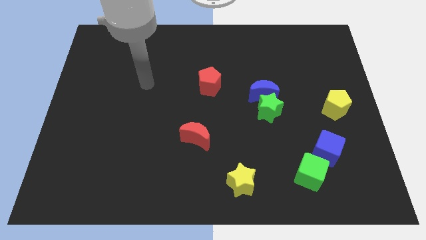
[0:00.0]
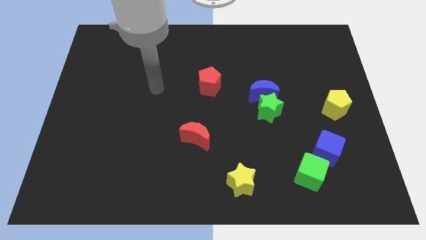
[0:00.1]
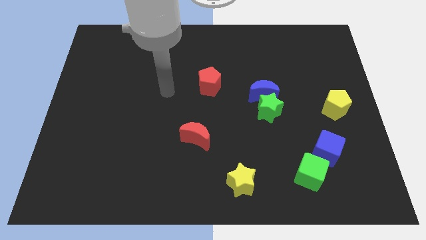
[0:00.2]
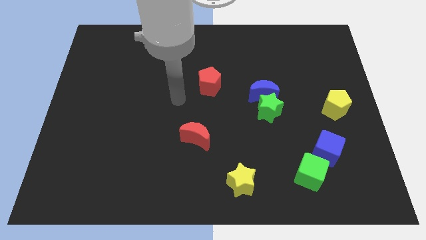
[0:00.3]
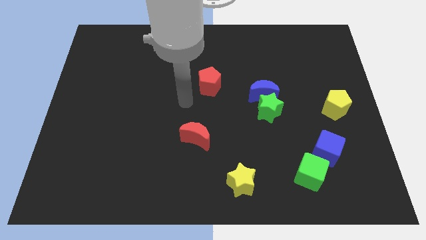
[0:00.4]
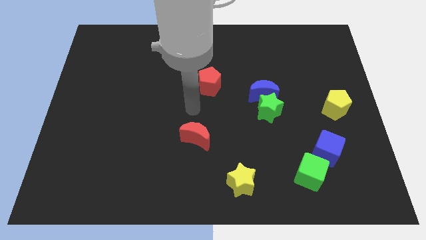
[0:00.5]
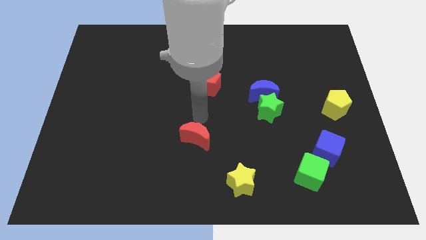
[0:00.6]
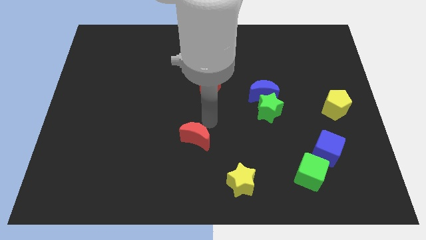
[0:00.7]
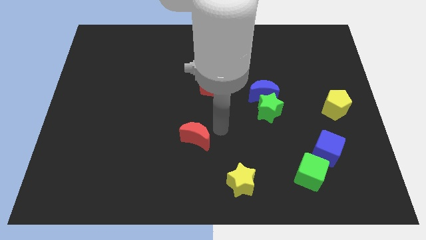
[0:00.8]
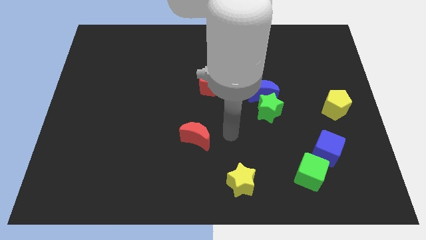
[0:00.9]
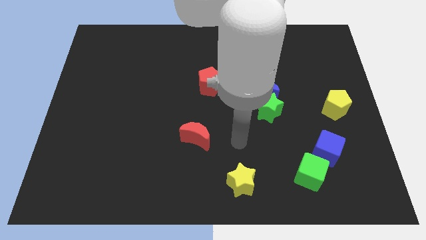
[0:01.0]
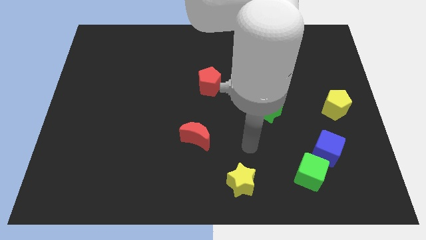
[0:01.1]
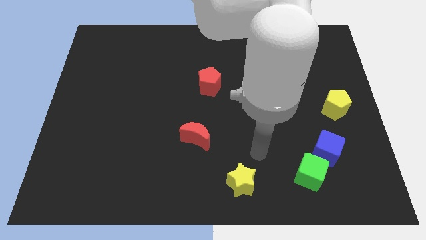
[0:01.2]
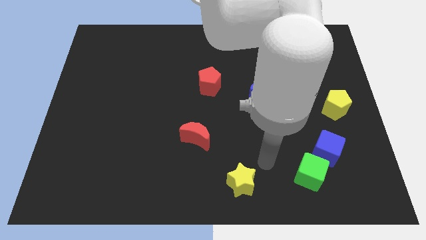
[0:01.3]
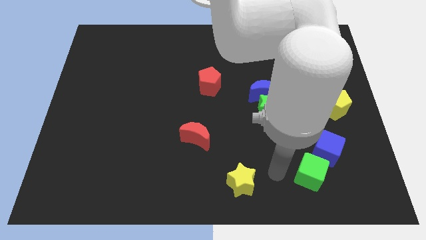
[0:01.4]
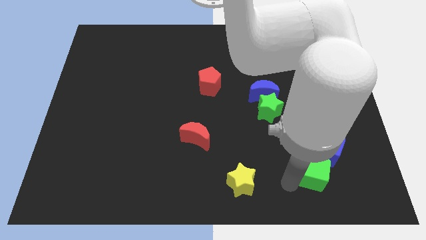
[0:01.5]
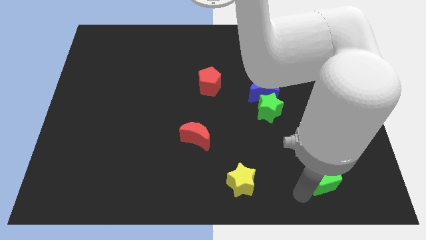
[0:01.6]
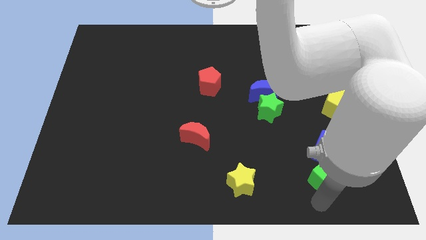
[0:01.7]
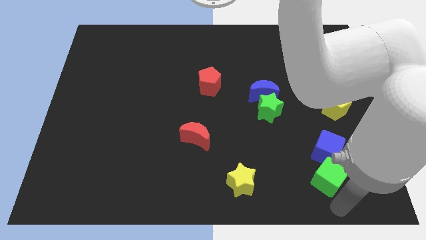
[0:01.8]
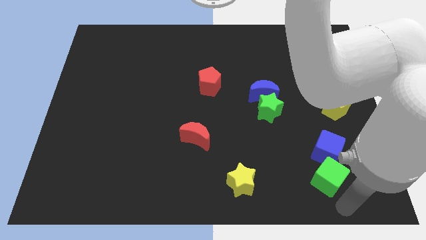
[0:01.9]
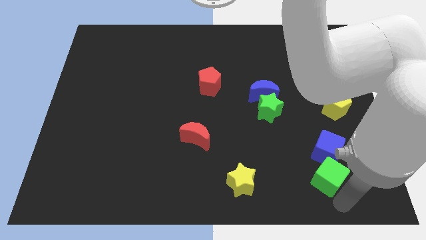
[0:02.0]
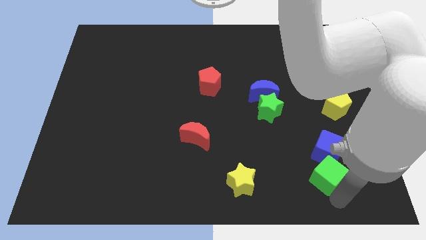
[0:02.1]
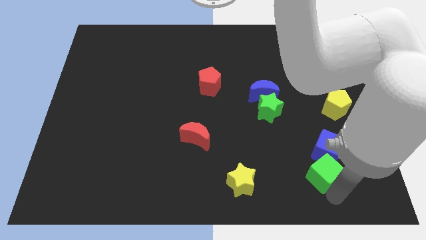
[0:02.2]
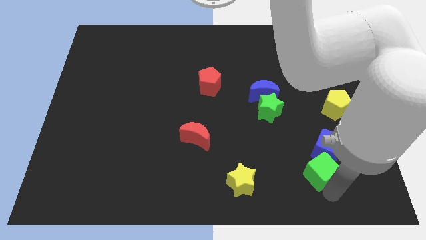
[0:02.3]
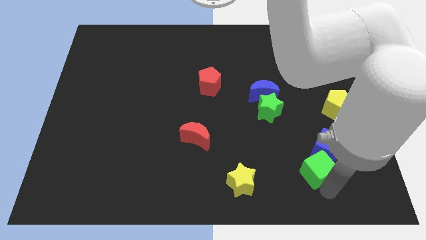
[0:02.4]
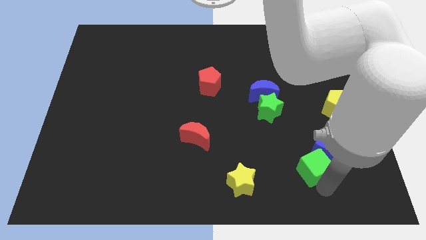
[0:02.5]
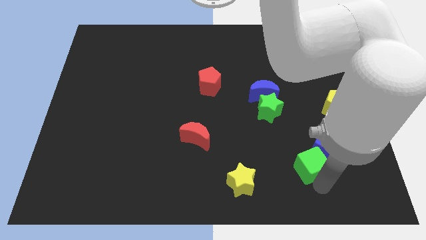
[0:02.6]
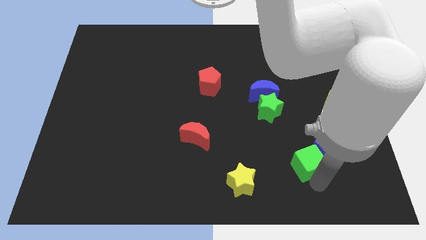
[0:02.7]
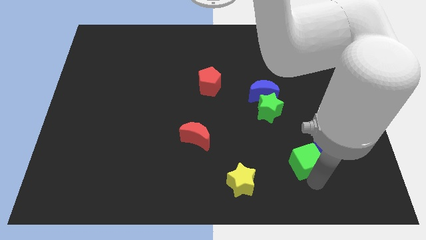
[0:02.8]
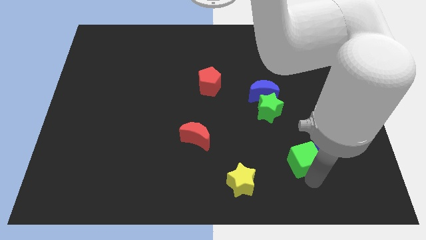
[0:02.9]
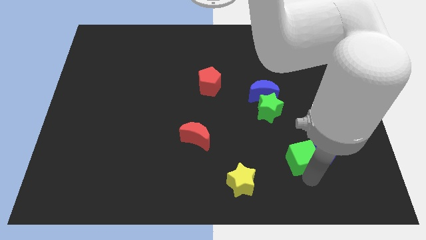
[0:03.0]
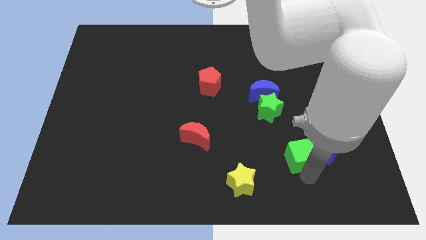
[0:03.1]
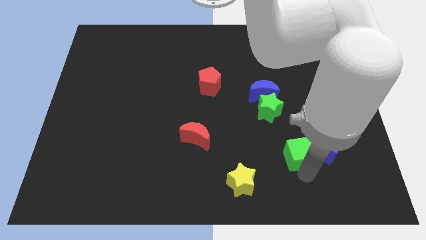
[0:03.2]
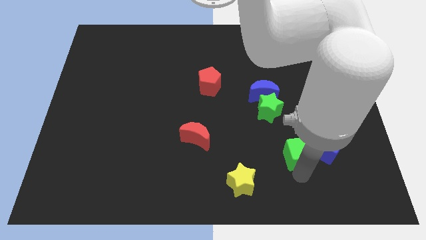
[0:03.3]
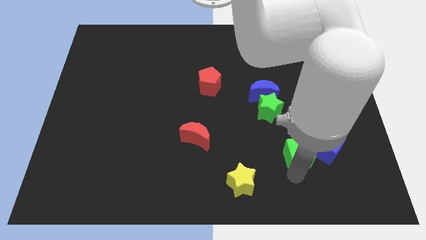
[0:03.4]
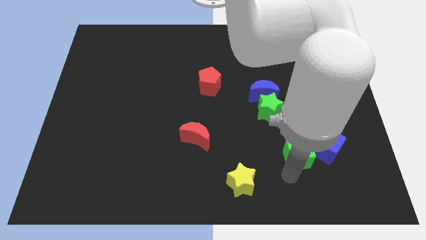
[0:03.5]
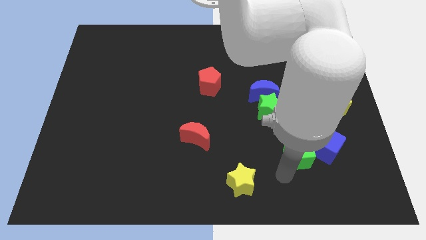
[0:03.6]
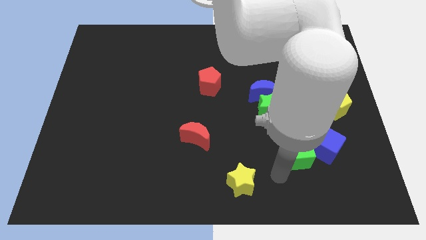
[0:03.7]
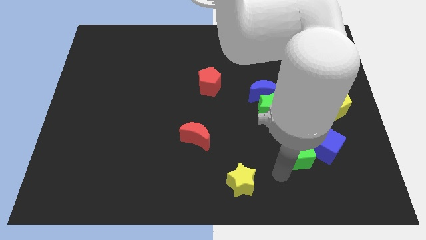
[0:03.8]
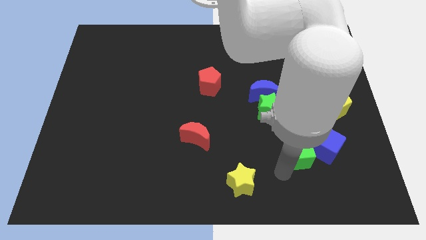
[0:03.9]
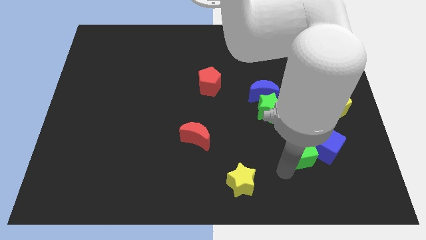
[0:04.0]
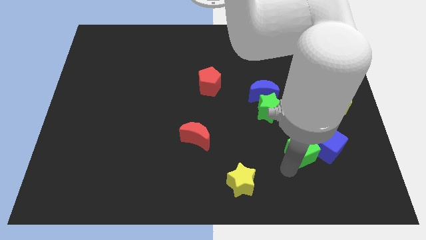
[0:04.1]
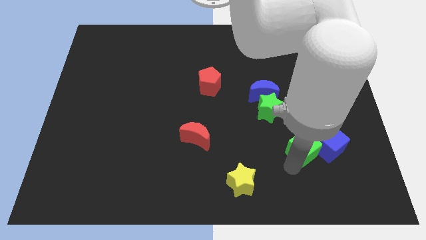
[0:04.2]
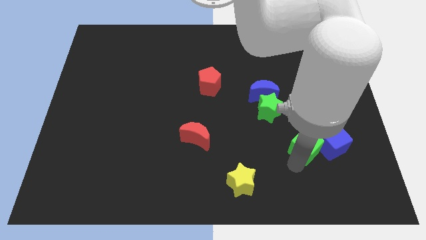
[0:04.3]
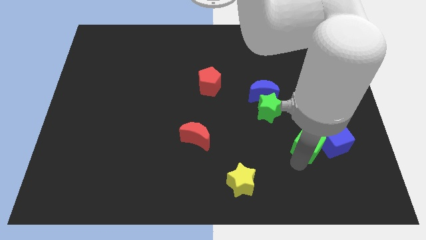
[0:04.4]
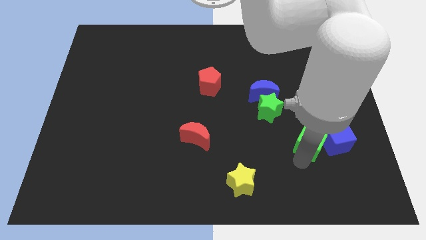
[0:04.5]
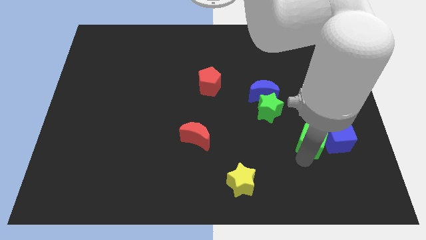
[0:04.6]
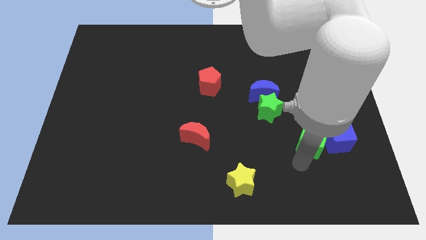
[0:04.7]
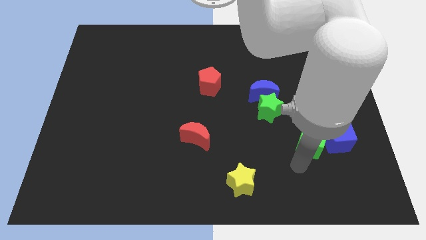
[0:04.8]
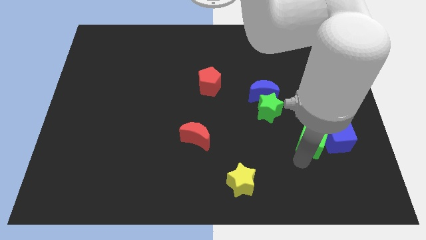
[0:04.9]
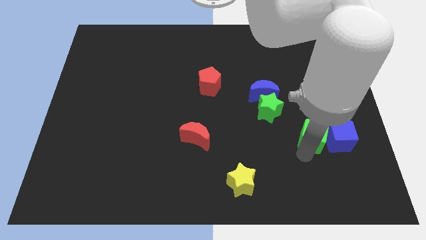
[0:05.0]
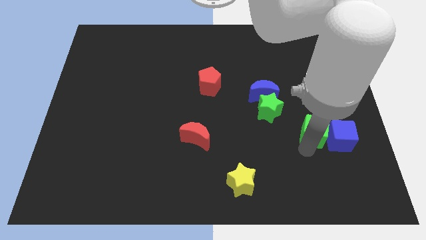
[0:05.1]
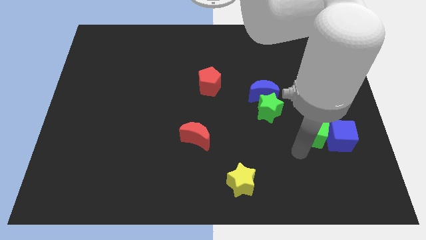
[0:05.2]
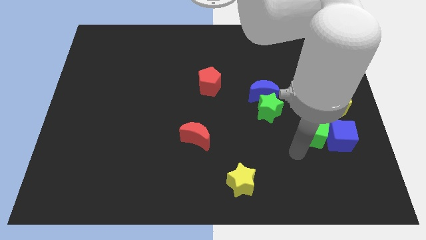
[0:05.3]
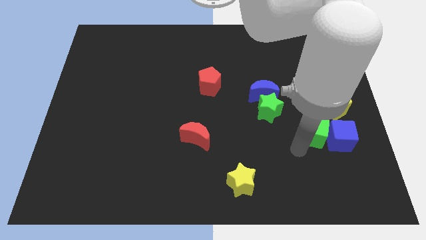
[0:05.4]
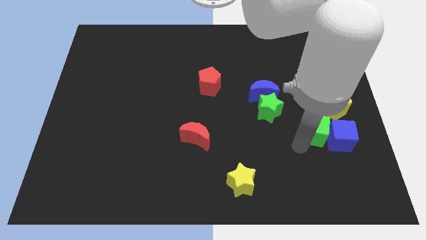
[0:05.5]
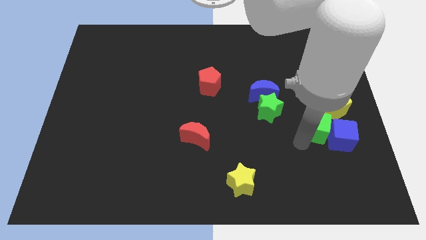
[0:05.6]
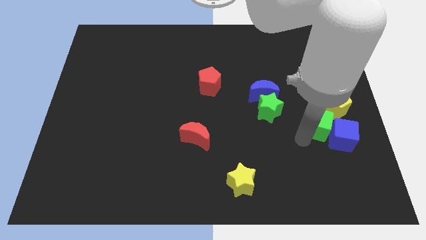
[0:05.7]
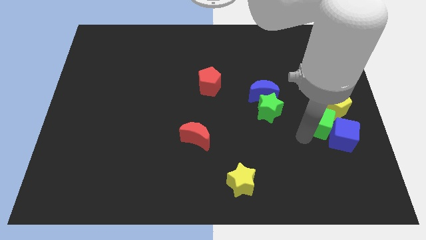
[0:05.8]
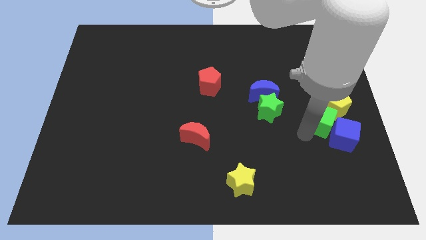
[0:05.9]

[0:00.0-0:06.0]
put the green cube close to the yellow pentagon

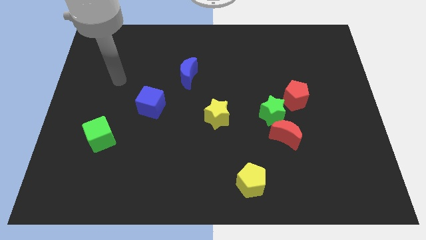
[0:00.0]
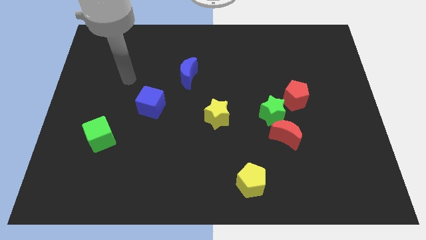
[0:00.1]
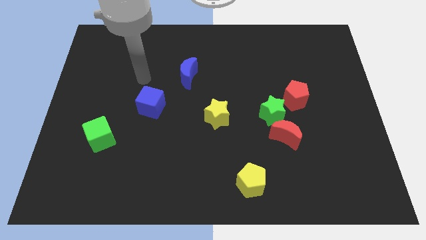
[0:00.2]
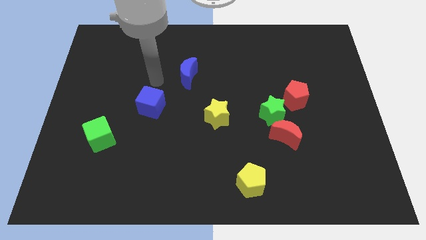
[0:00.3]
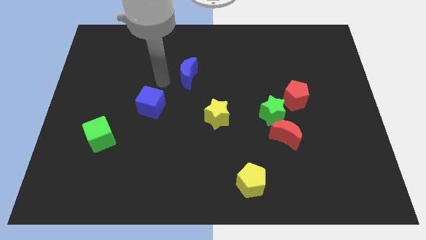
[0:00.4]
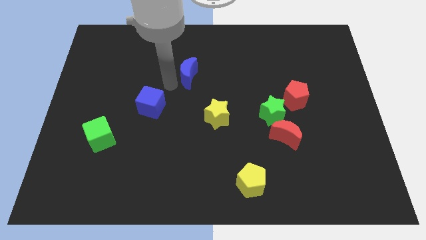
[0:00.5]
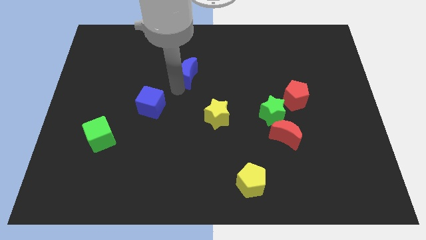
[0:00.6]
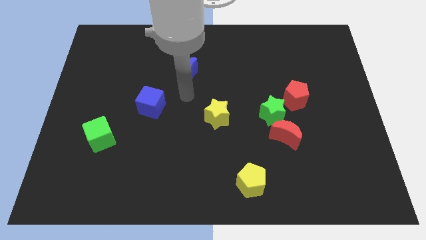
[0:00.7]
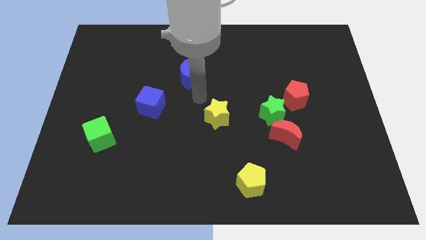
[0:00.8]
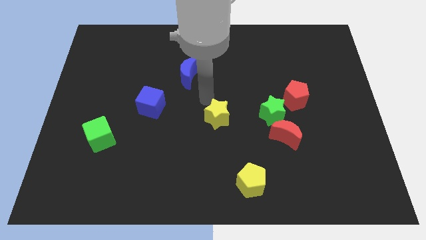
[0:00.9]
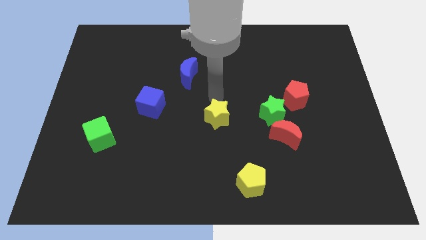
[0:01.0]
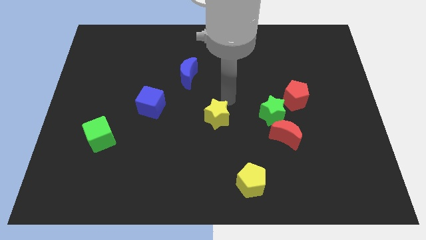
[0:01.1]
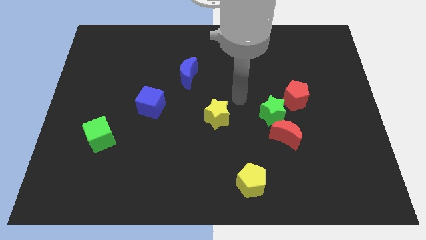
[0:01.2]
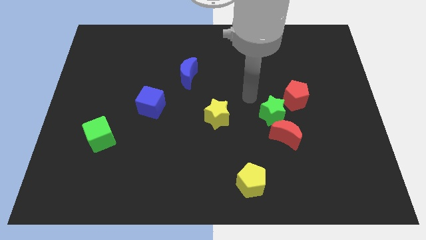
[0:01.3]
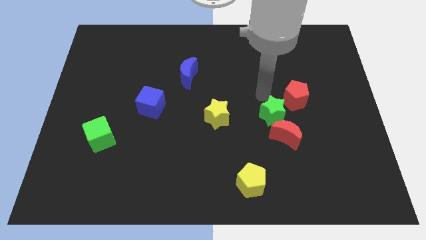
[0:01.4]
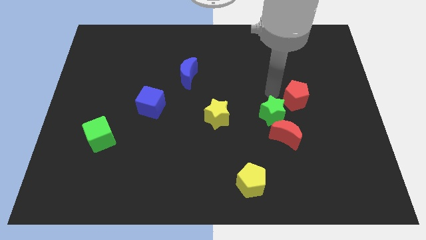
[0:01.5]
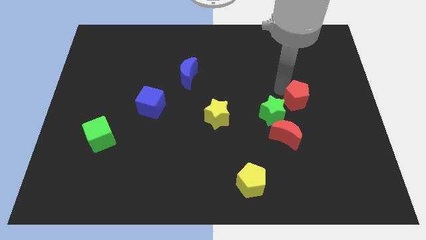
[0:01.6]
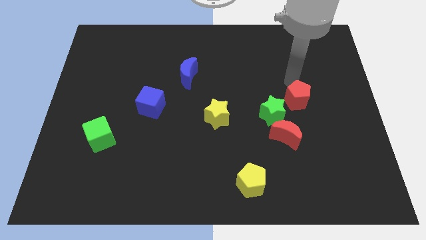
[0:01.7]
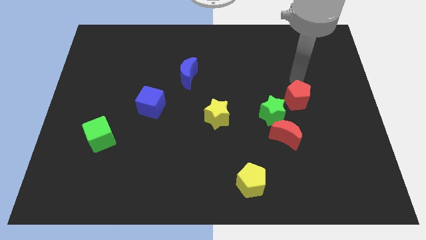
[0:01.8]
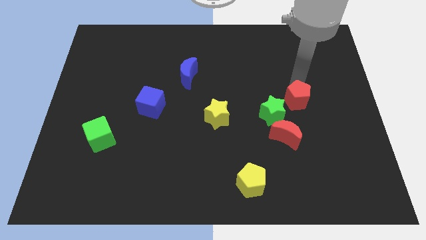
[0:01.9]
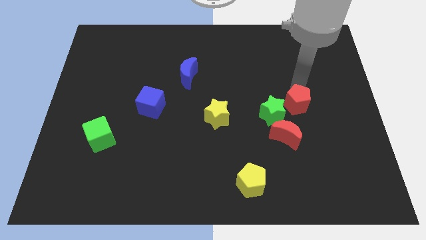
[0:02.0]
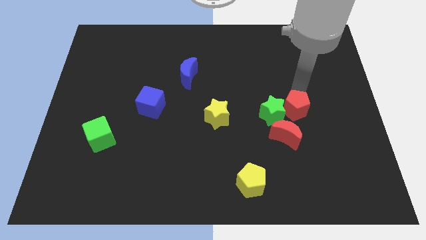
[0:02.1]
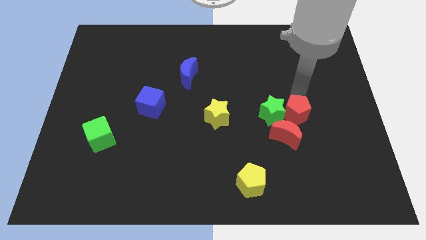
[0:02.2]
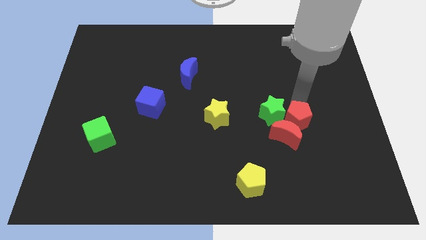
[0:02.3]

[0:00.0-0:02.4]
push the red pentagon to the red moon
